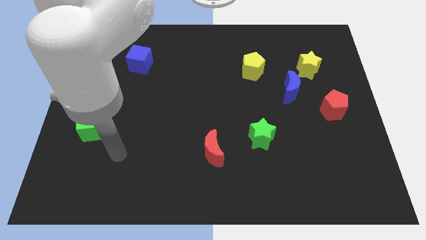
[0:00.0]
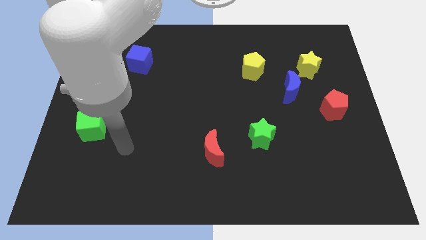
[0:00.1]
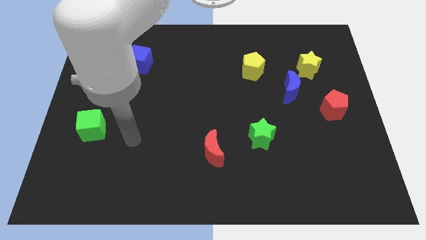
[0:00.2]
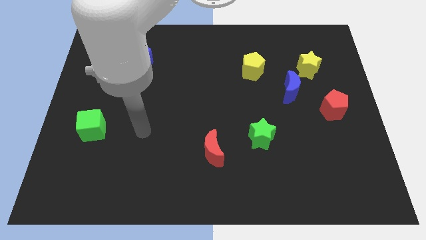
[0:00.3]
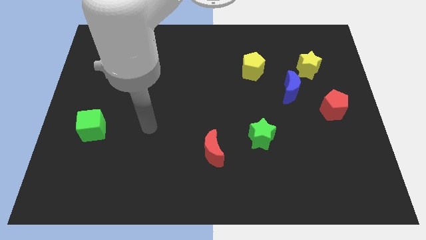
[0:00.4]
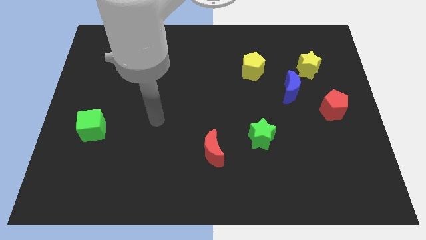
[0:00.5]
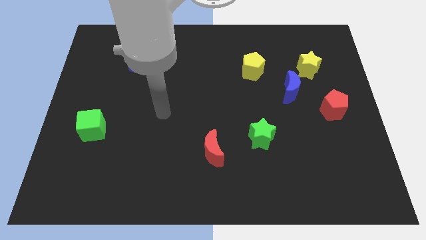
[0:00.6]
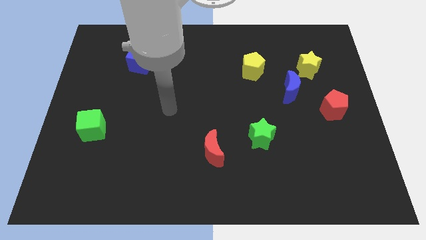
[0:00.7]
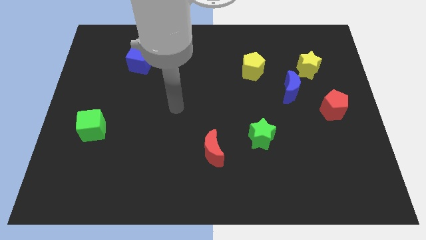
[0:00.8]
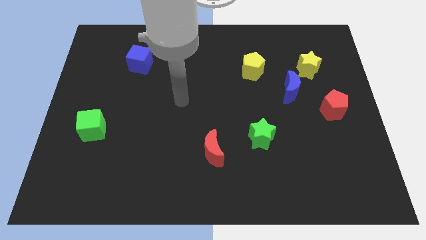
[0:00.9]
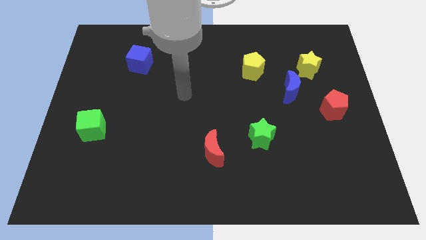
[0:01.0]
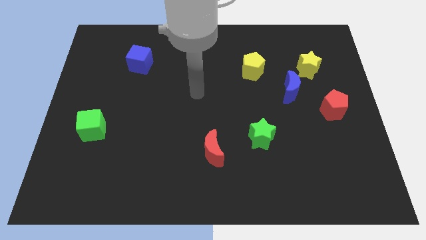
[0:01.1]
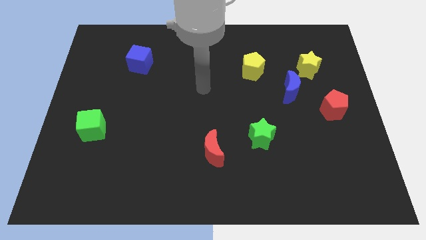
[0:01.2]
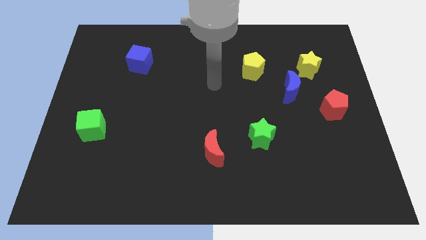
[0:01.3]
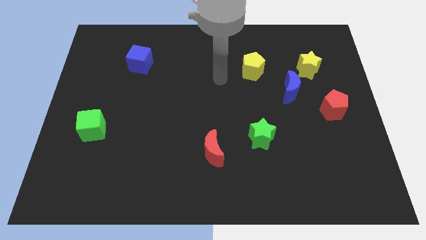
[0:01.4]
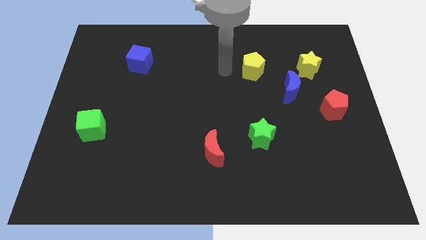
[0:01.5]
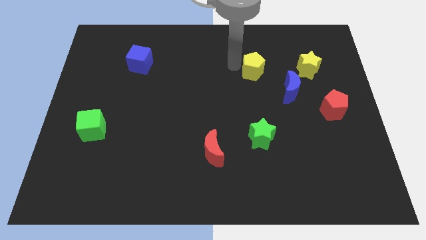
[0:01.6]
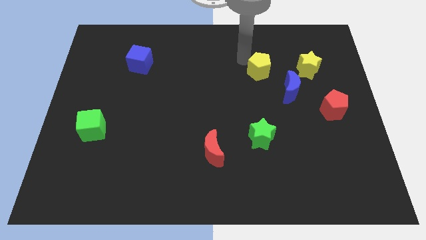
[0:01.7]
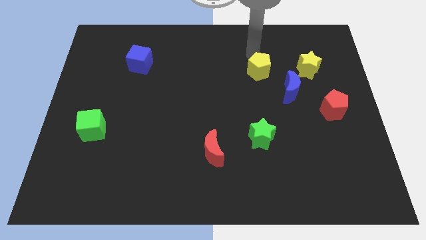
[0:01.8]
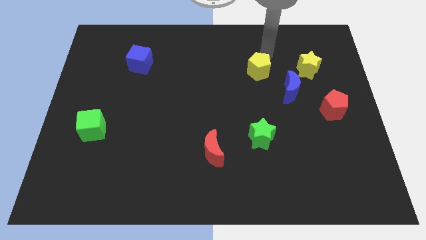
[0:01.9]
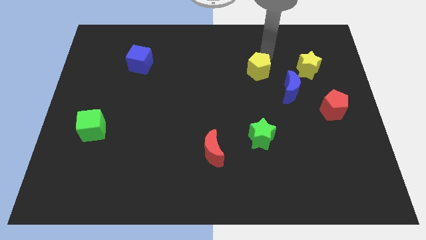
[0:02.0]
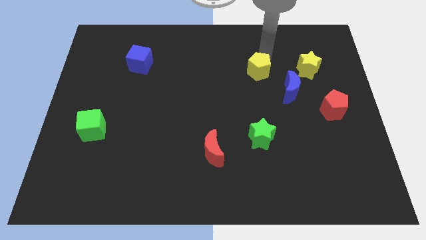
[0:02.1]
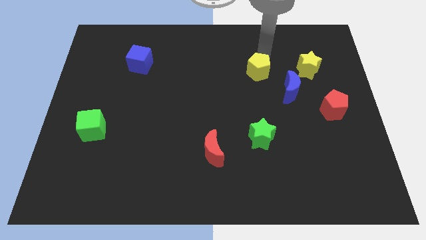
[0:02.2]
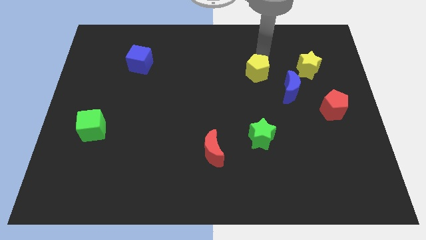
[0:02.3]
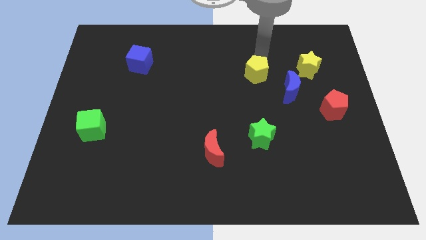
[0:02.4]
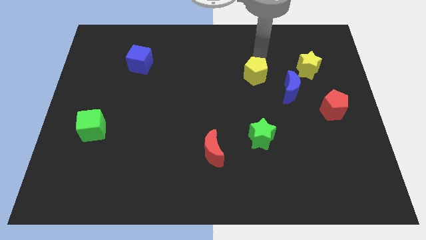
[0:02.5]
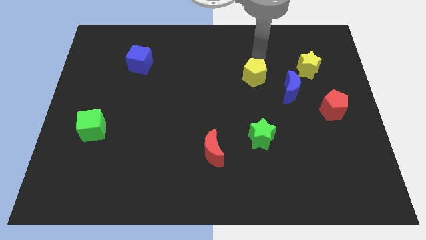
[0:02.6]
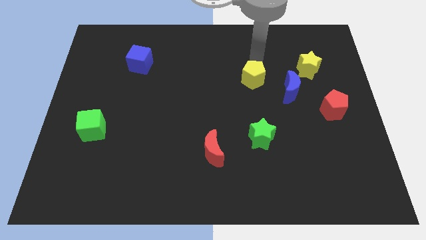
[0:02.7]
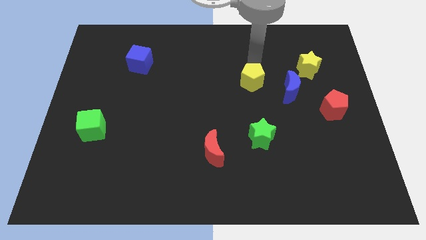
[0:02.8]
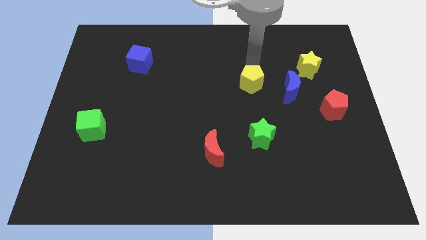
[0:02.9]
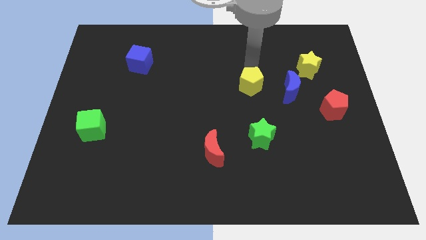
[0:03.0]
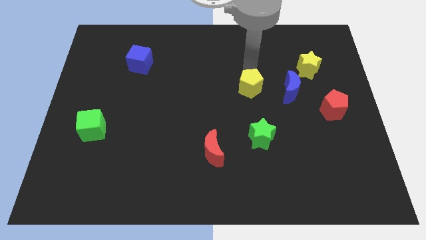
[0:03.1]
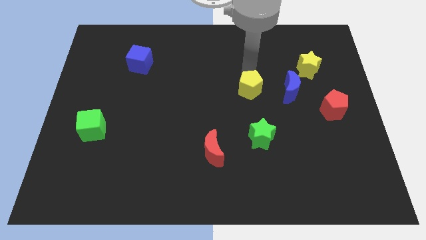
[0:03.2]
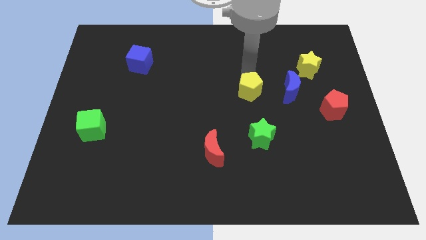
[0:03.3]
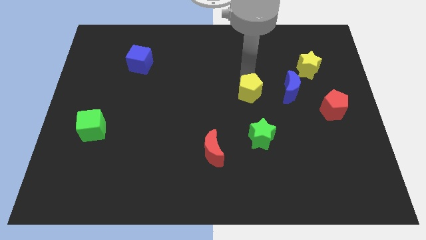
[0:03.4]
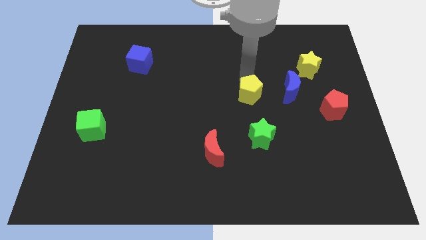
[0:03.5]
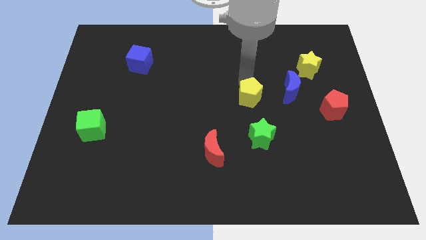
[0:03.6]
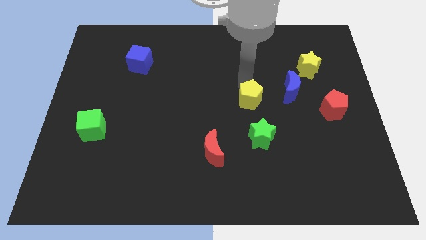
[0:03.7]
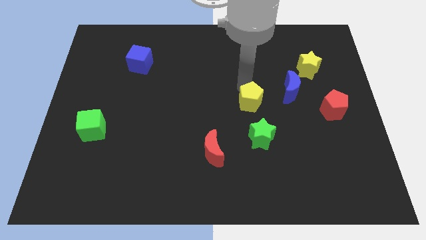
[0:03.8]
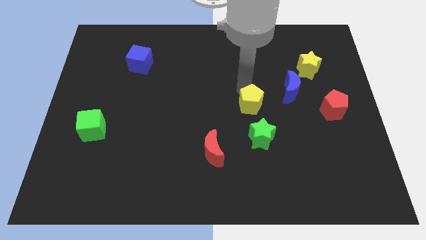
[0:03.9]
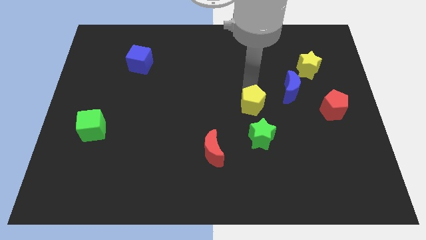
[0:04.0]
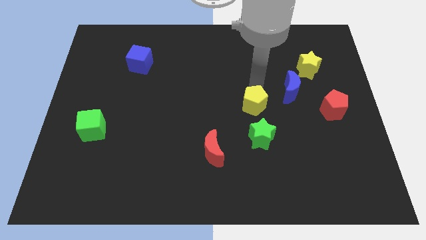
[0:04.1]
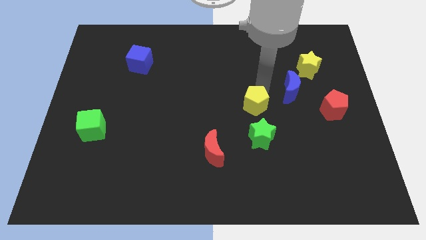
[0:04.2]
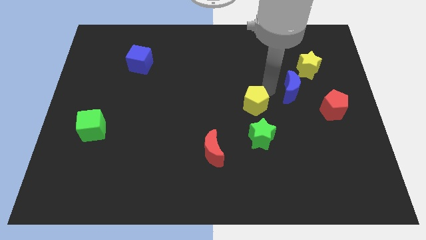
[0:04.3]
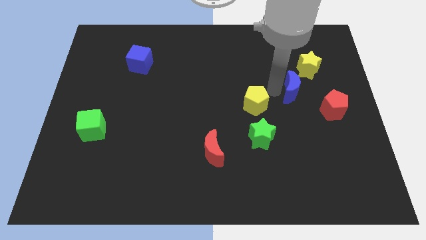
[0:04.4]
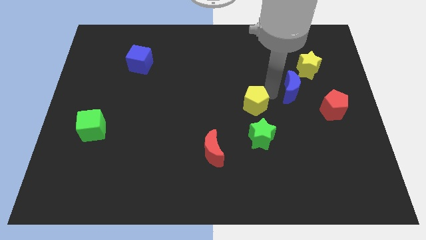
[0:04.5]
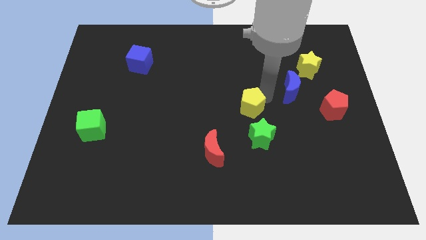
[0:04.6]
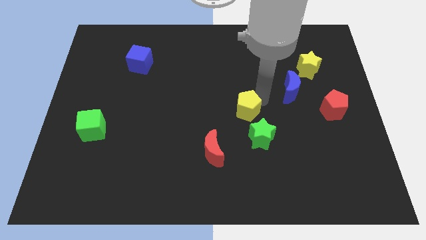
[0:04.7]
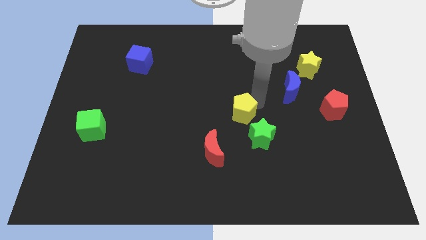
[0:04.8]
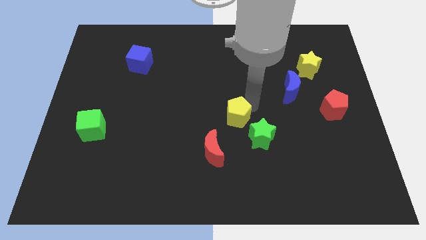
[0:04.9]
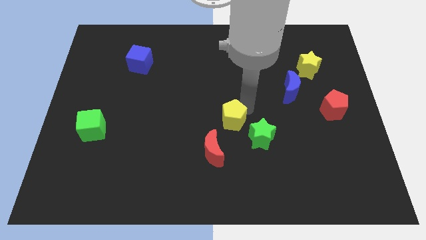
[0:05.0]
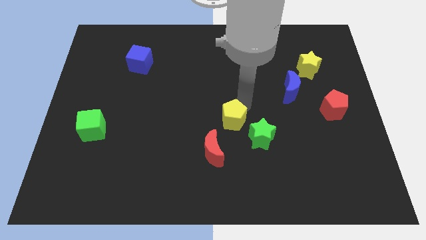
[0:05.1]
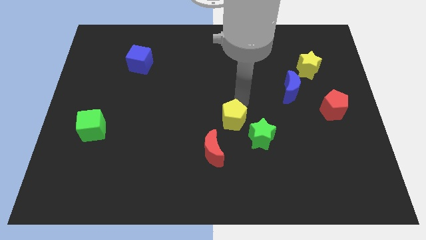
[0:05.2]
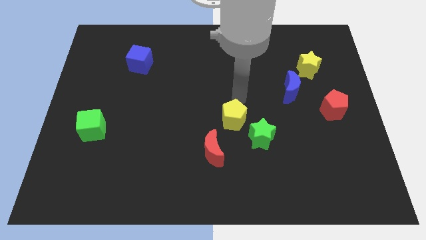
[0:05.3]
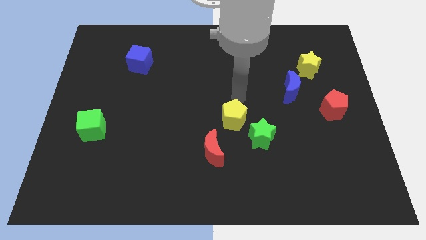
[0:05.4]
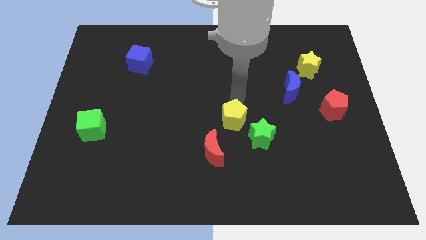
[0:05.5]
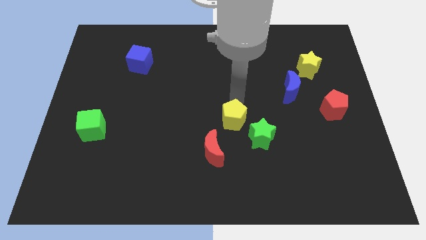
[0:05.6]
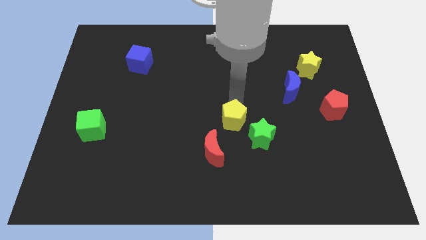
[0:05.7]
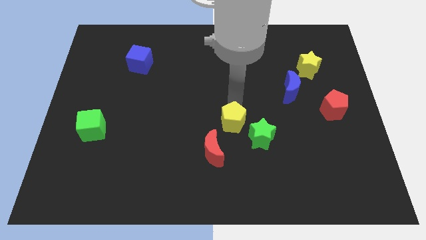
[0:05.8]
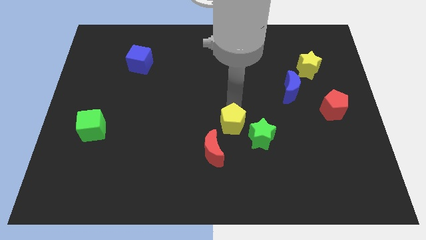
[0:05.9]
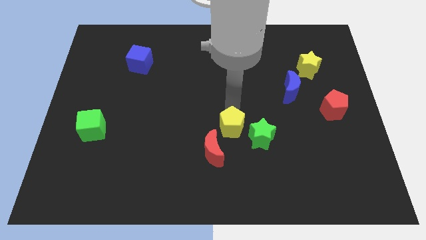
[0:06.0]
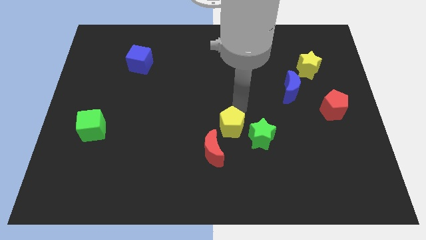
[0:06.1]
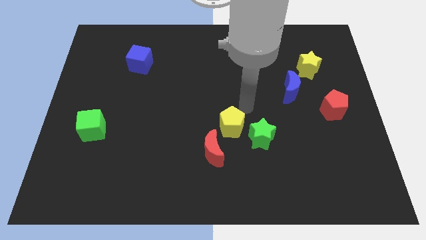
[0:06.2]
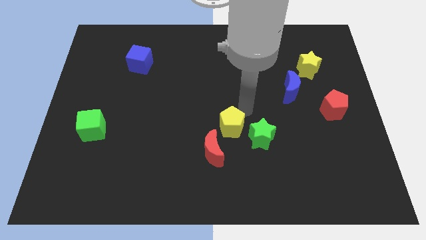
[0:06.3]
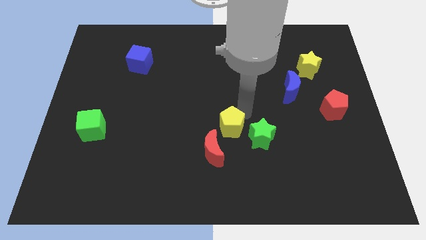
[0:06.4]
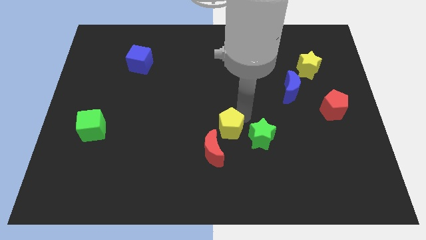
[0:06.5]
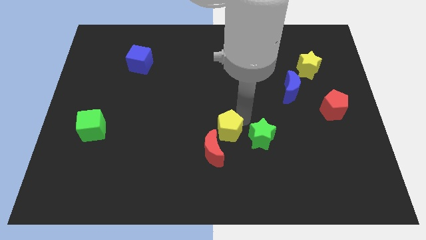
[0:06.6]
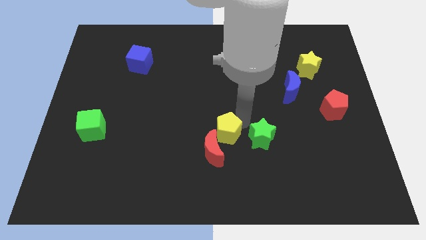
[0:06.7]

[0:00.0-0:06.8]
push the yellow pentagon towards the red moon

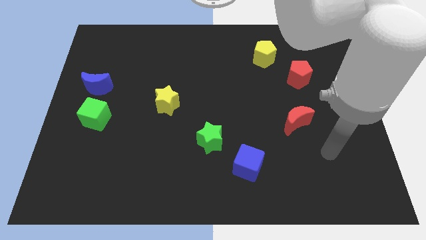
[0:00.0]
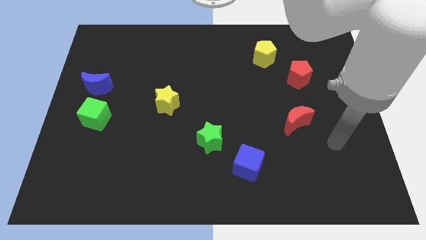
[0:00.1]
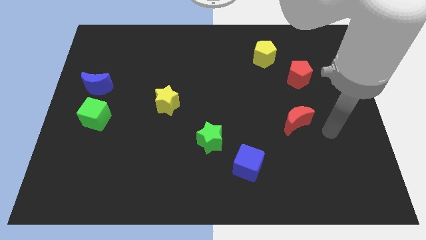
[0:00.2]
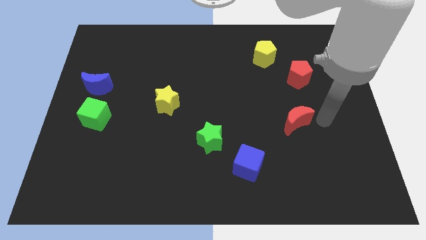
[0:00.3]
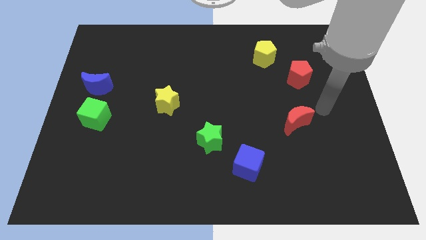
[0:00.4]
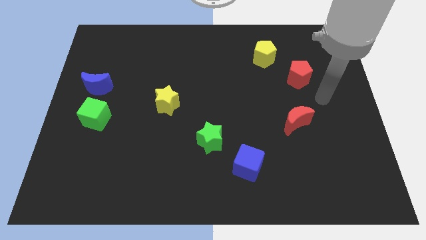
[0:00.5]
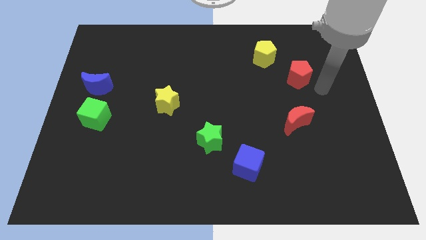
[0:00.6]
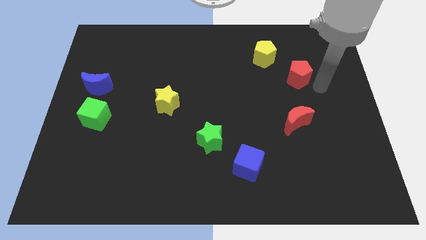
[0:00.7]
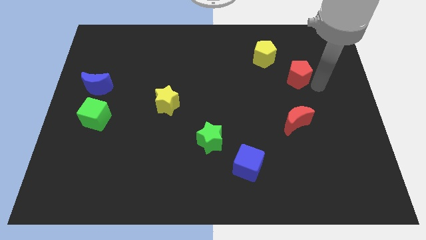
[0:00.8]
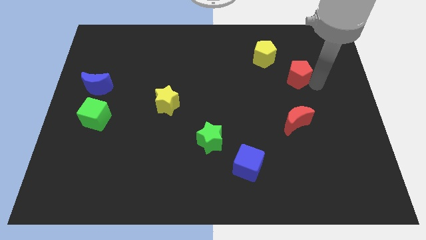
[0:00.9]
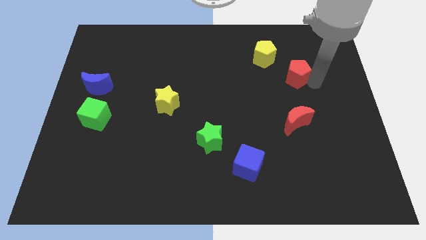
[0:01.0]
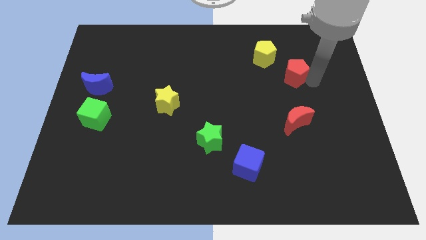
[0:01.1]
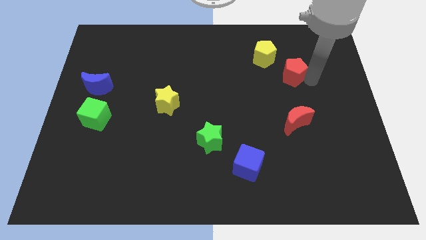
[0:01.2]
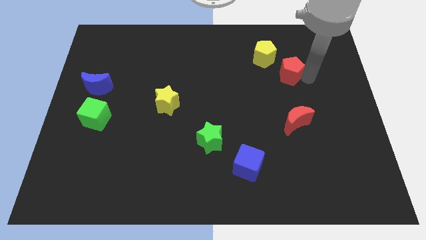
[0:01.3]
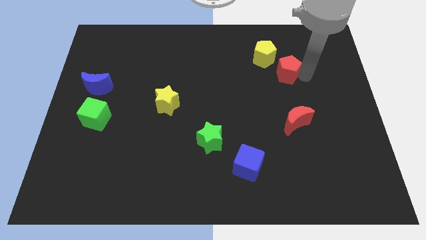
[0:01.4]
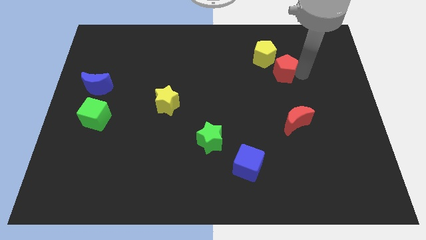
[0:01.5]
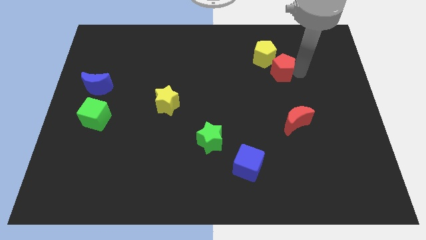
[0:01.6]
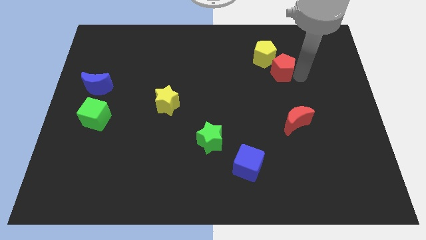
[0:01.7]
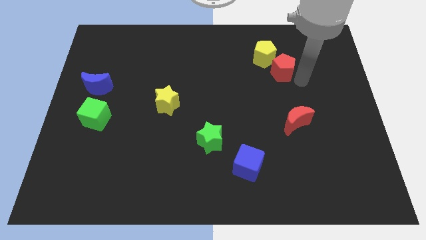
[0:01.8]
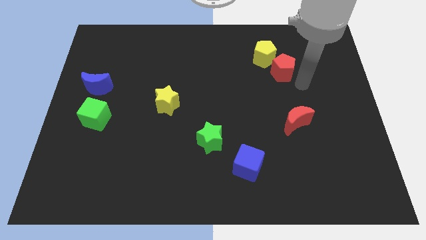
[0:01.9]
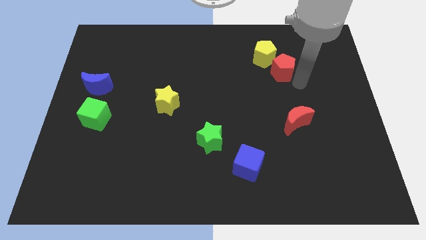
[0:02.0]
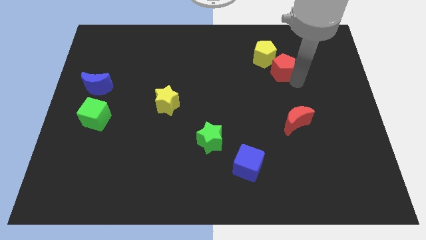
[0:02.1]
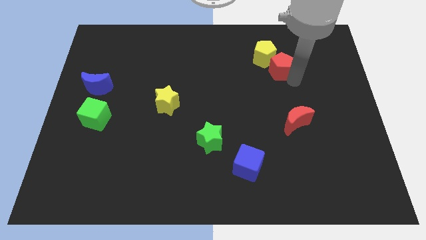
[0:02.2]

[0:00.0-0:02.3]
move the red pentagon close to the yellow pentagon
